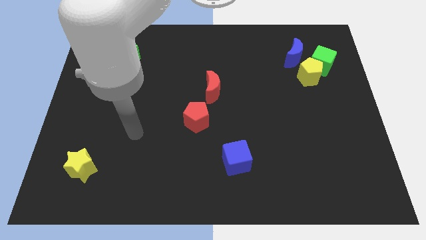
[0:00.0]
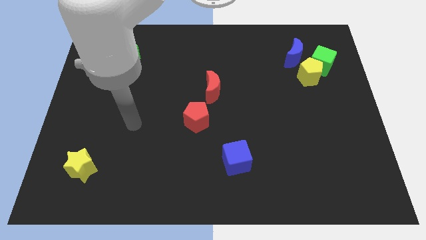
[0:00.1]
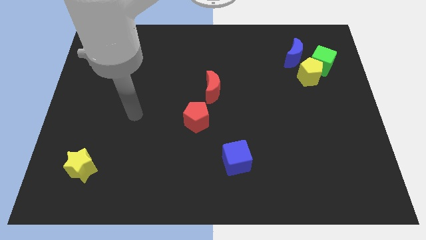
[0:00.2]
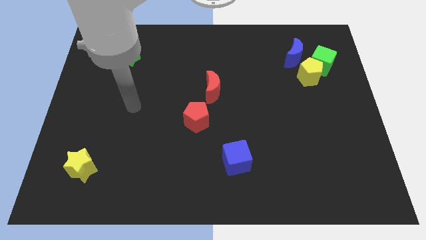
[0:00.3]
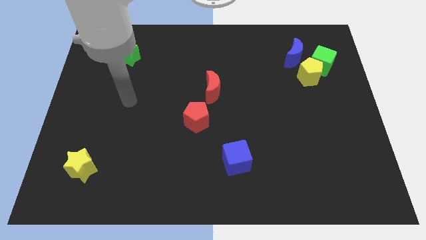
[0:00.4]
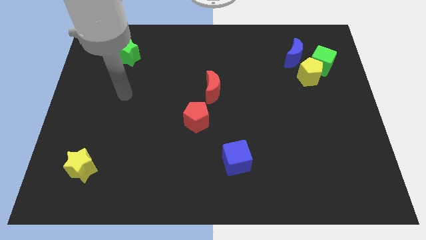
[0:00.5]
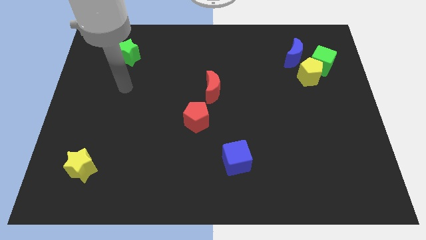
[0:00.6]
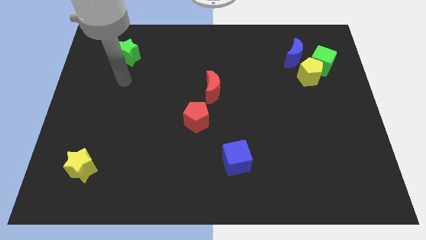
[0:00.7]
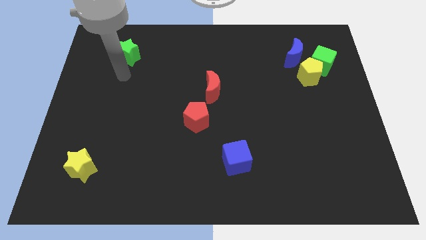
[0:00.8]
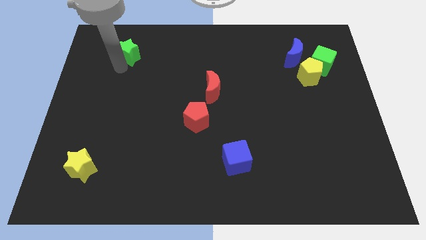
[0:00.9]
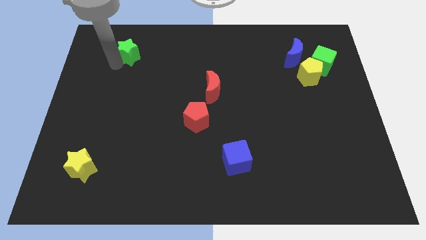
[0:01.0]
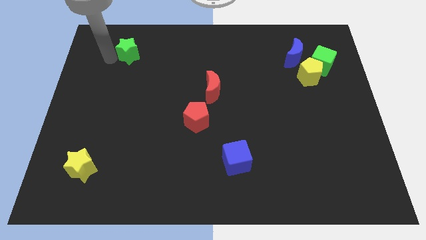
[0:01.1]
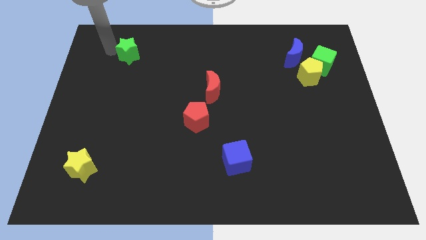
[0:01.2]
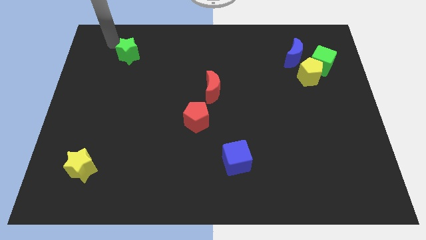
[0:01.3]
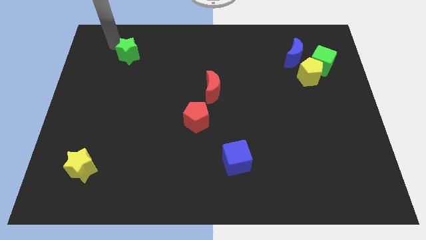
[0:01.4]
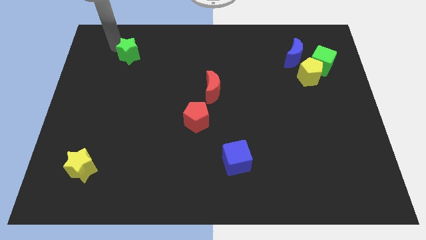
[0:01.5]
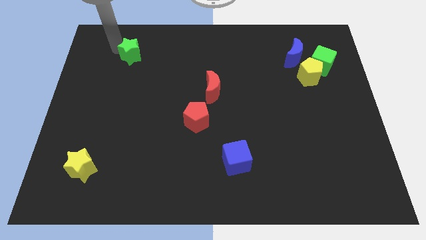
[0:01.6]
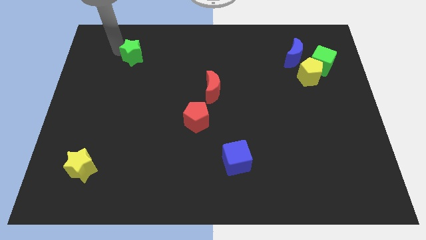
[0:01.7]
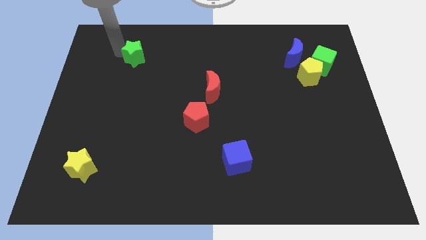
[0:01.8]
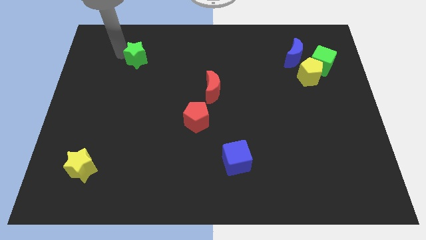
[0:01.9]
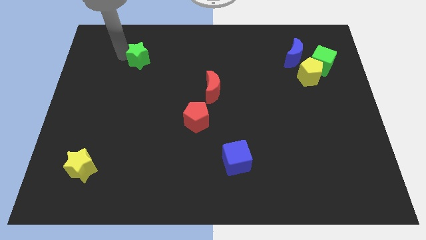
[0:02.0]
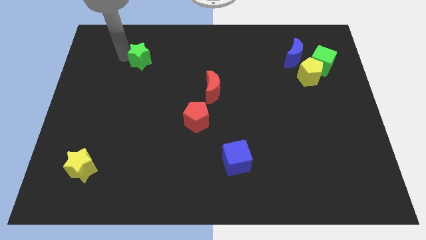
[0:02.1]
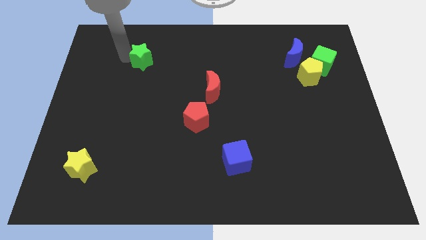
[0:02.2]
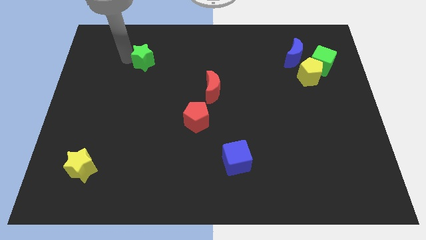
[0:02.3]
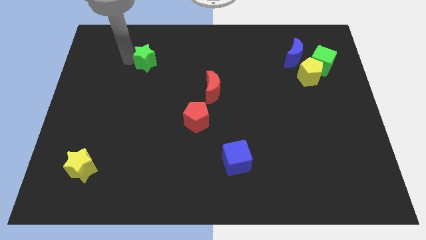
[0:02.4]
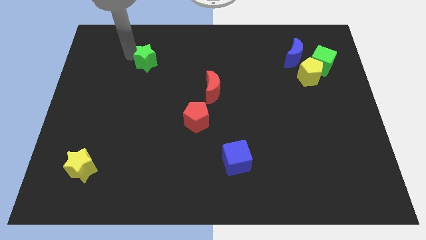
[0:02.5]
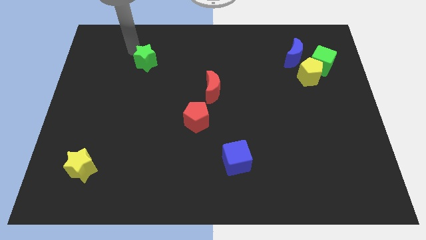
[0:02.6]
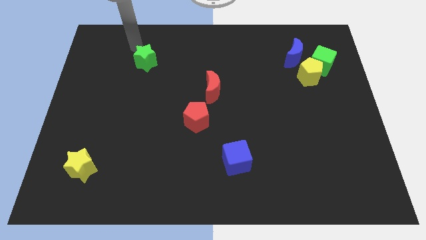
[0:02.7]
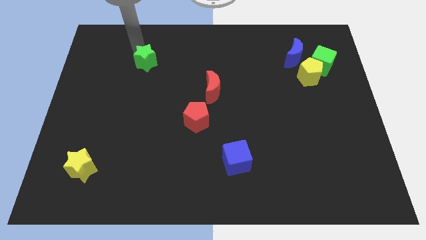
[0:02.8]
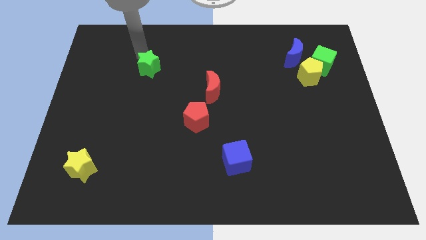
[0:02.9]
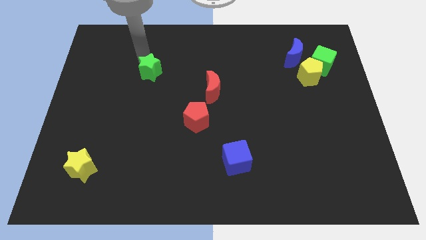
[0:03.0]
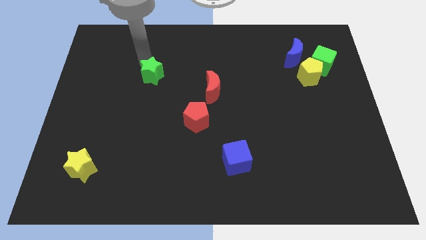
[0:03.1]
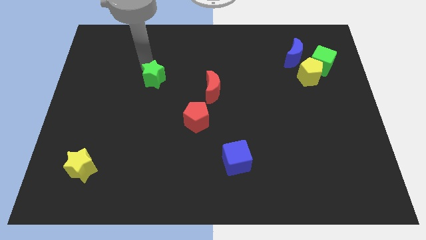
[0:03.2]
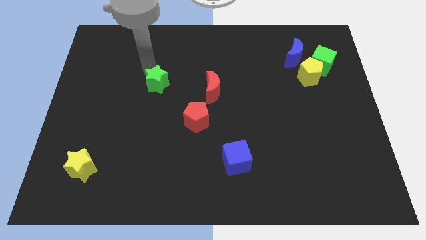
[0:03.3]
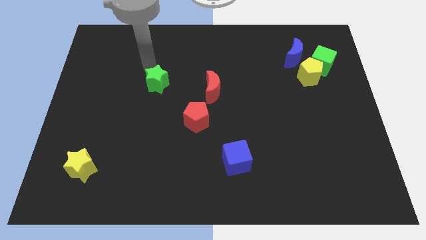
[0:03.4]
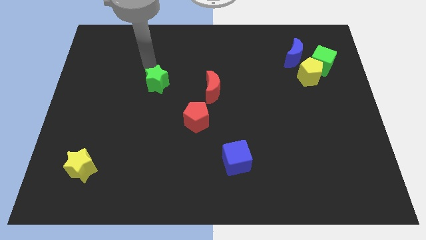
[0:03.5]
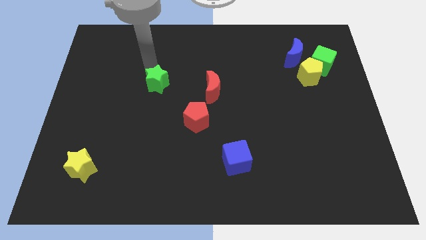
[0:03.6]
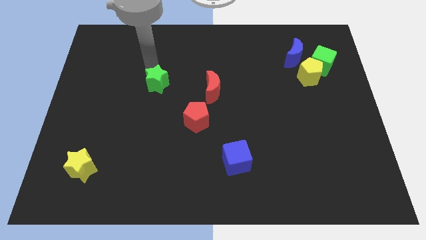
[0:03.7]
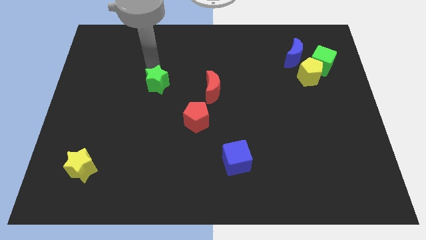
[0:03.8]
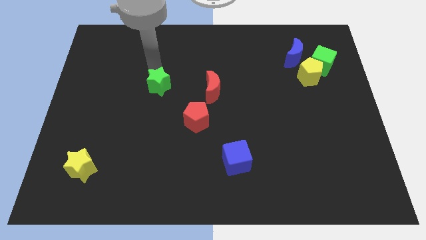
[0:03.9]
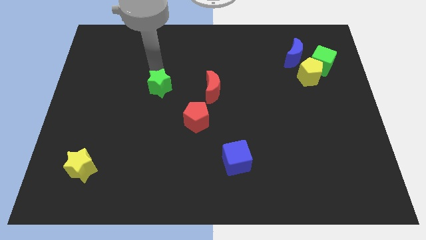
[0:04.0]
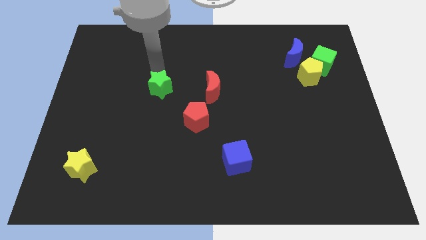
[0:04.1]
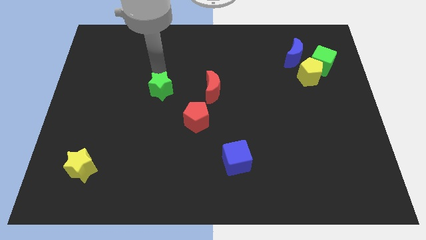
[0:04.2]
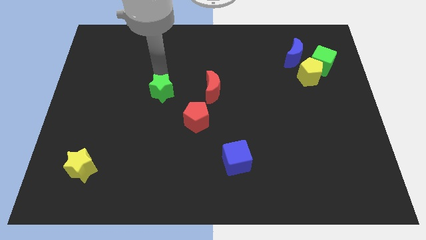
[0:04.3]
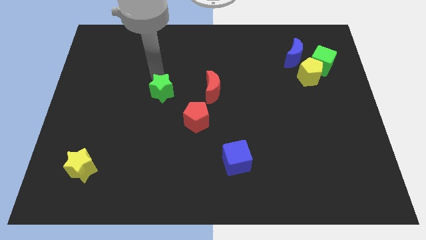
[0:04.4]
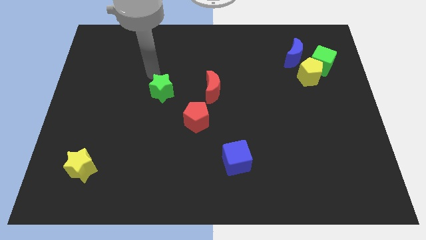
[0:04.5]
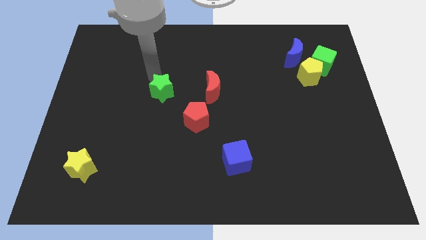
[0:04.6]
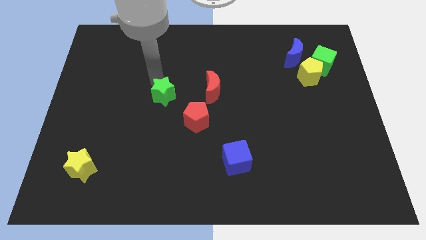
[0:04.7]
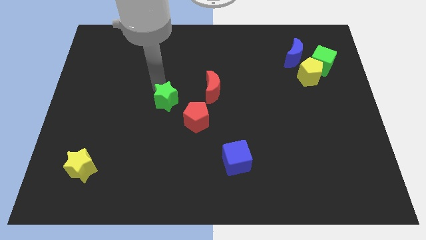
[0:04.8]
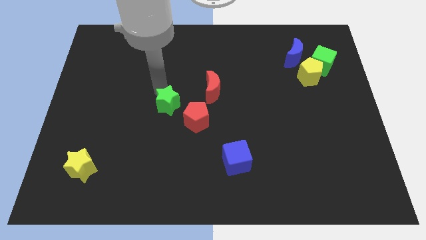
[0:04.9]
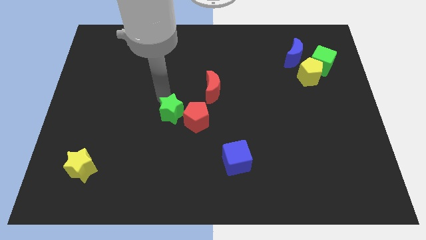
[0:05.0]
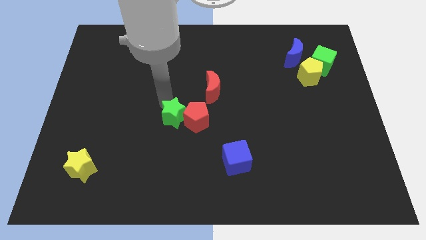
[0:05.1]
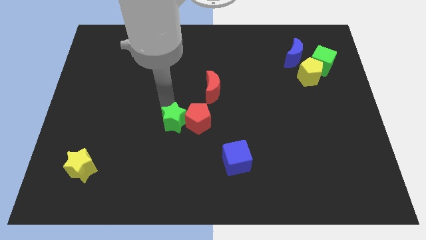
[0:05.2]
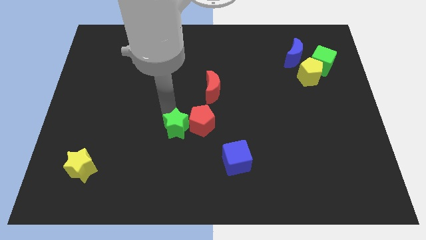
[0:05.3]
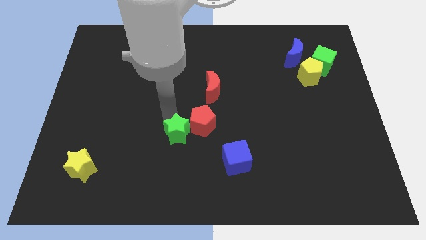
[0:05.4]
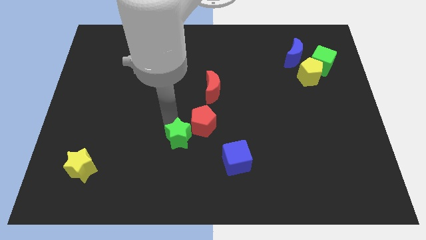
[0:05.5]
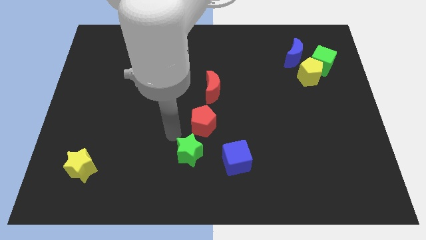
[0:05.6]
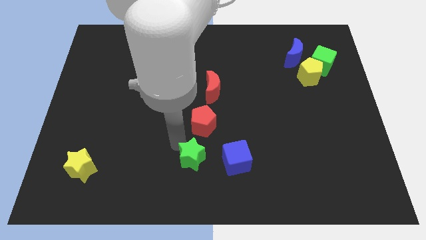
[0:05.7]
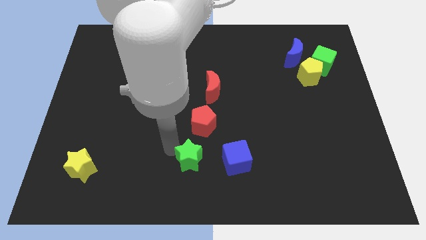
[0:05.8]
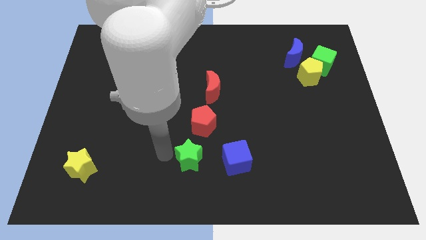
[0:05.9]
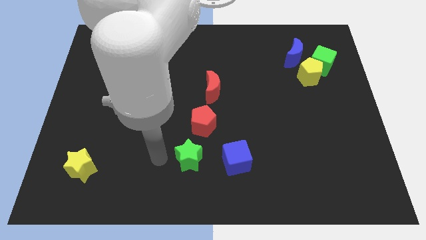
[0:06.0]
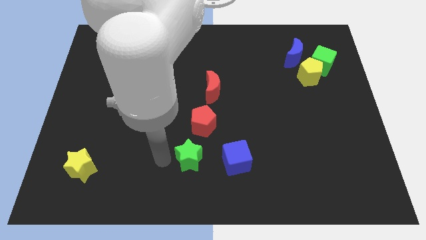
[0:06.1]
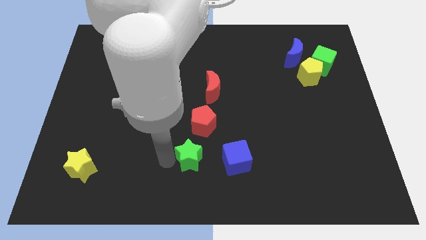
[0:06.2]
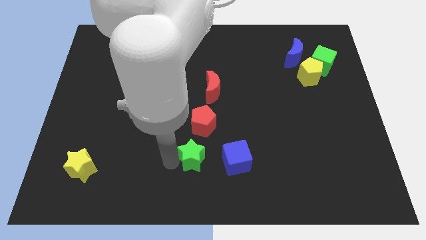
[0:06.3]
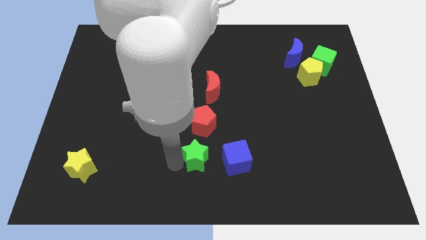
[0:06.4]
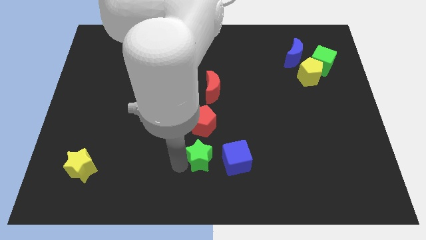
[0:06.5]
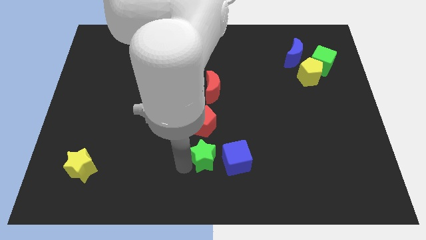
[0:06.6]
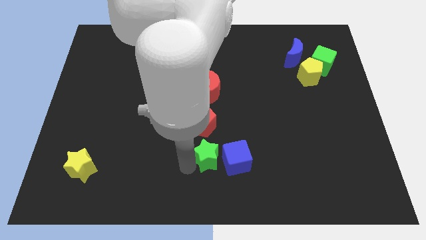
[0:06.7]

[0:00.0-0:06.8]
push the green star towards the blue cube

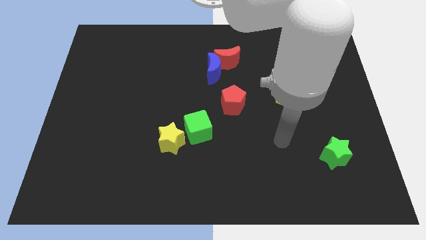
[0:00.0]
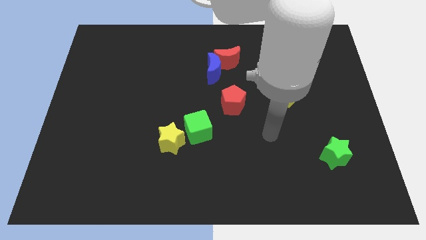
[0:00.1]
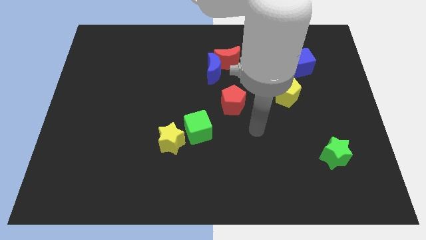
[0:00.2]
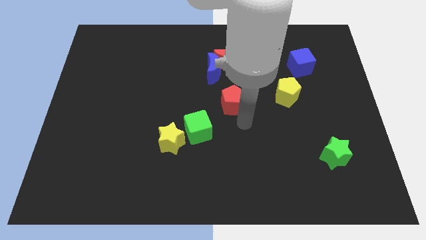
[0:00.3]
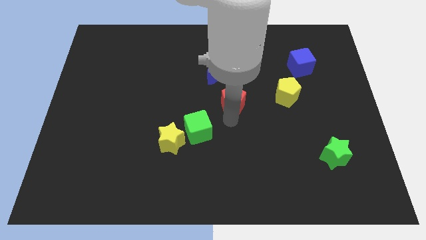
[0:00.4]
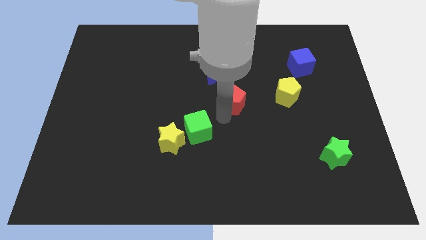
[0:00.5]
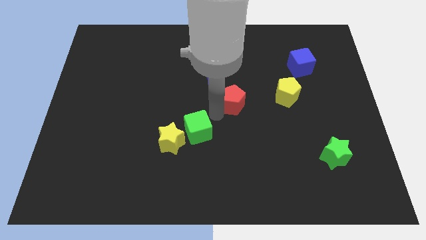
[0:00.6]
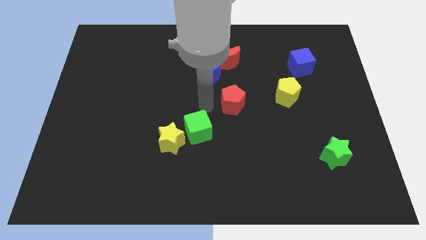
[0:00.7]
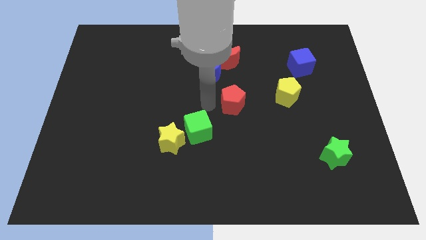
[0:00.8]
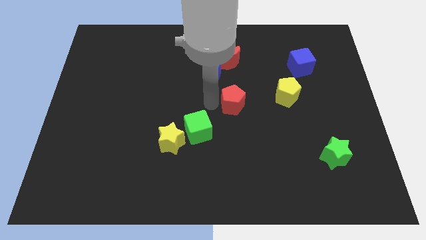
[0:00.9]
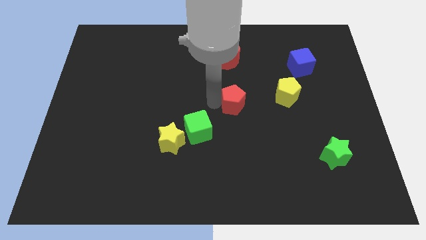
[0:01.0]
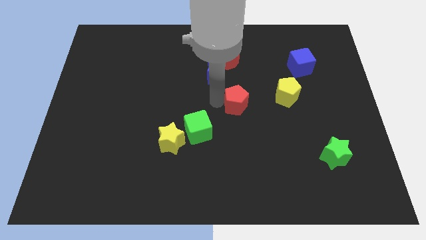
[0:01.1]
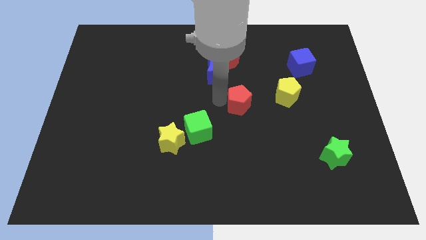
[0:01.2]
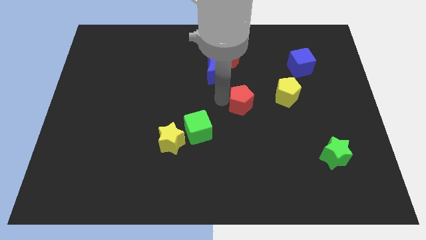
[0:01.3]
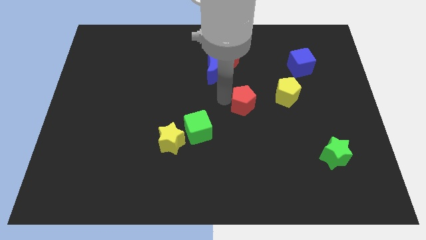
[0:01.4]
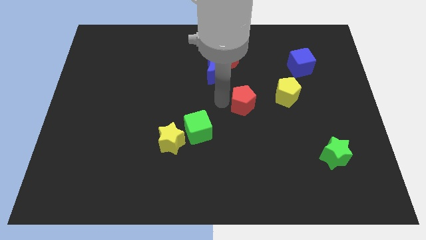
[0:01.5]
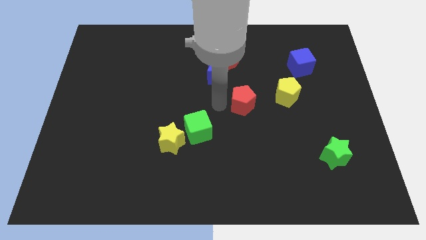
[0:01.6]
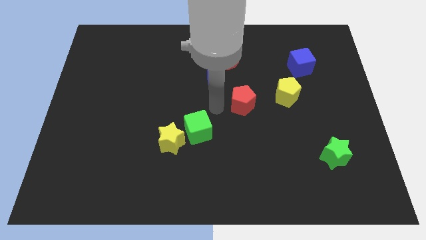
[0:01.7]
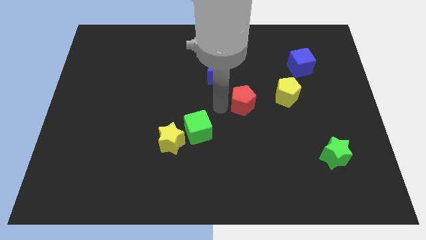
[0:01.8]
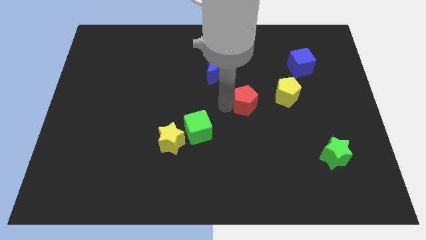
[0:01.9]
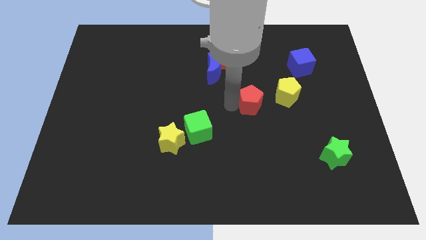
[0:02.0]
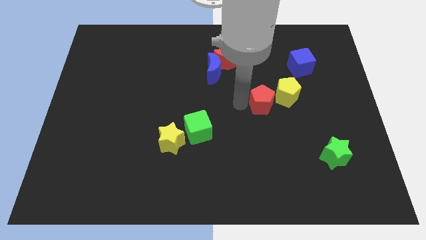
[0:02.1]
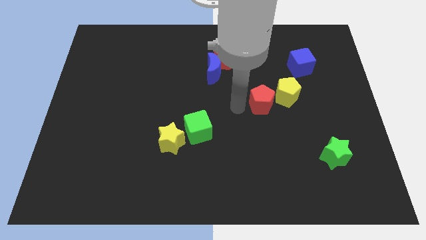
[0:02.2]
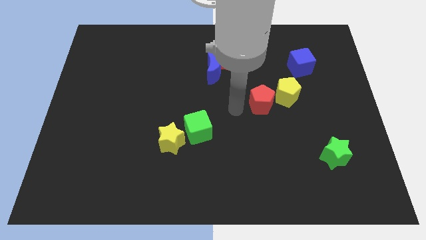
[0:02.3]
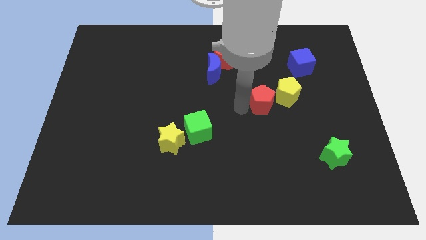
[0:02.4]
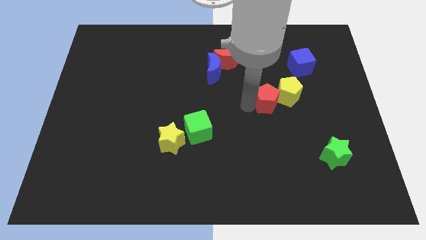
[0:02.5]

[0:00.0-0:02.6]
slide the red pentagon towards the yellow pentagon
